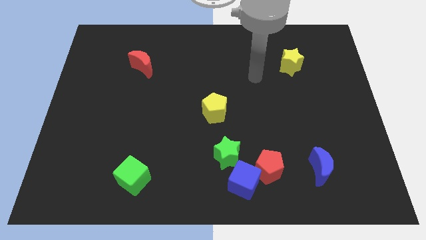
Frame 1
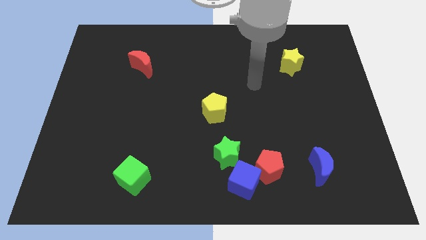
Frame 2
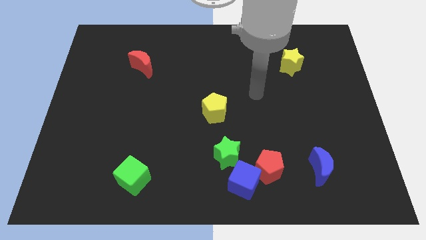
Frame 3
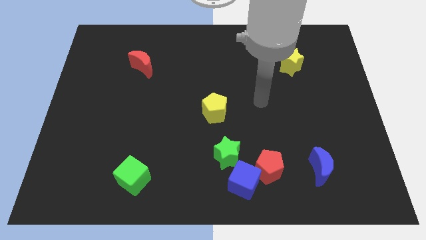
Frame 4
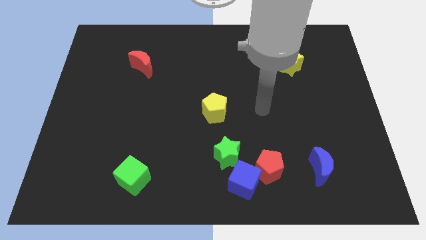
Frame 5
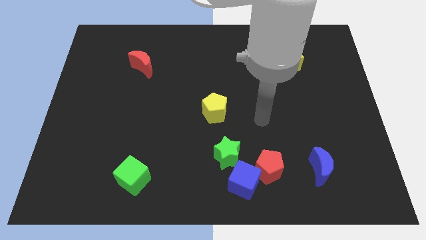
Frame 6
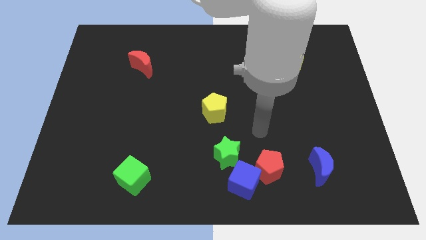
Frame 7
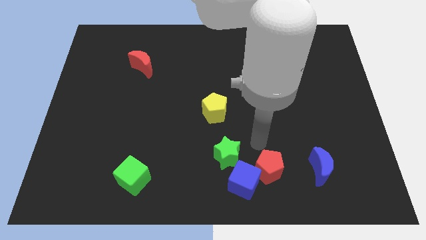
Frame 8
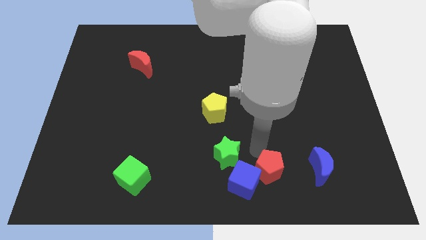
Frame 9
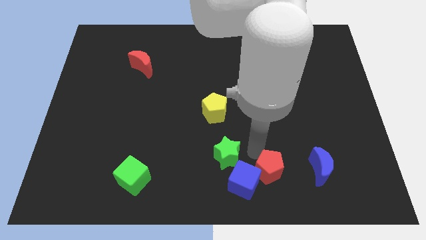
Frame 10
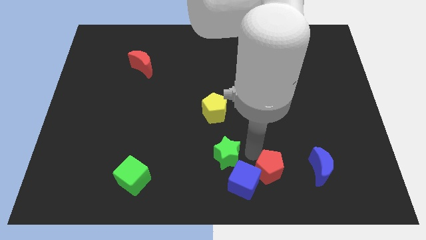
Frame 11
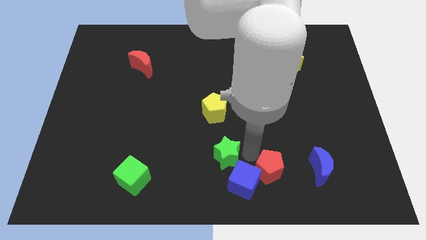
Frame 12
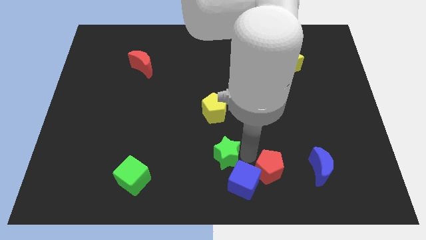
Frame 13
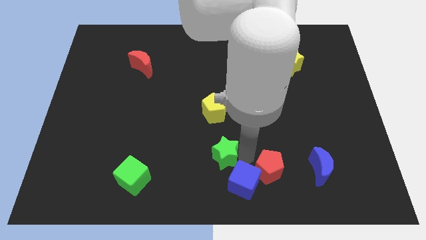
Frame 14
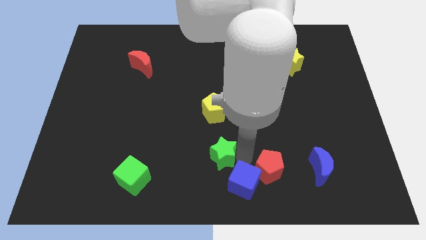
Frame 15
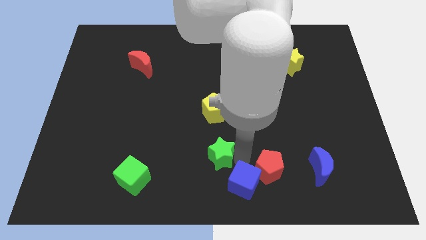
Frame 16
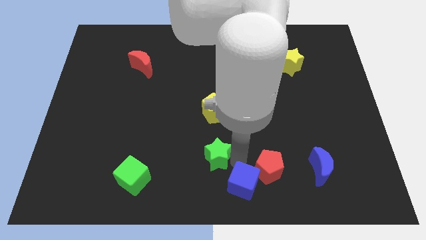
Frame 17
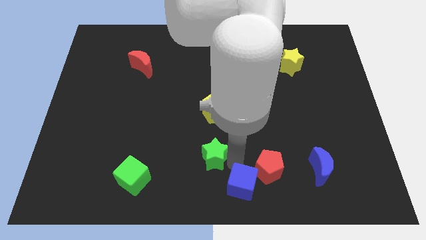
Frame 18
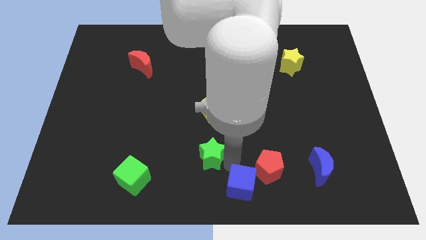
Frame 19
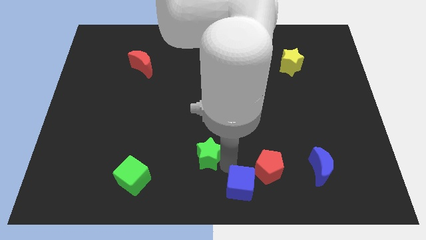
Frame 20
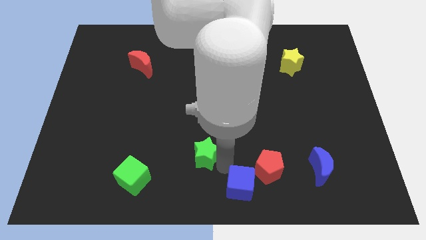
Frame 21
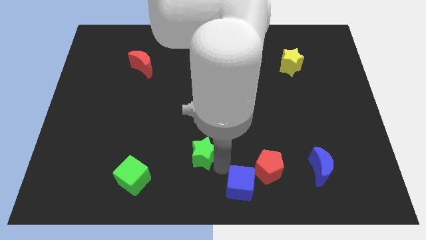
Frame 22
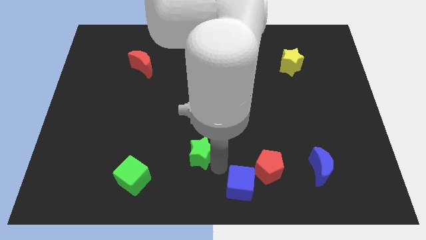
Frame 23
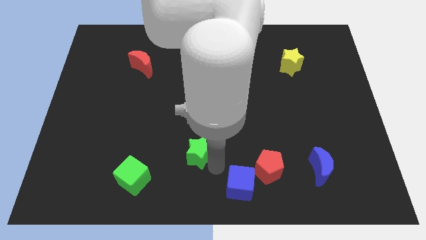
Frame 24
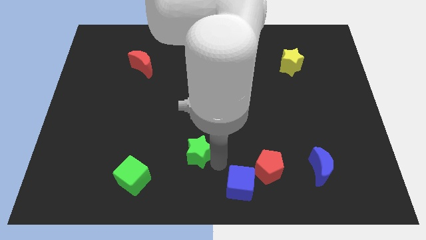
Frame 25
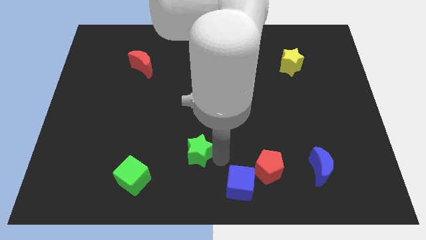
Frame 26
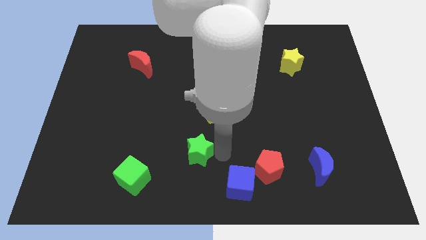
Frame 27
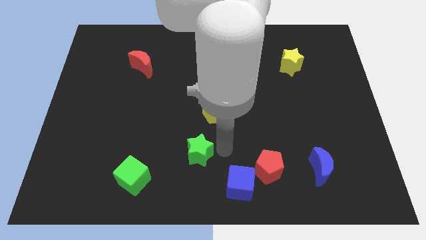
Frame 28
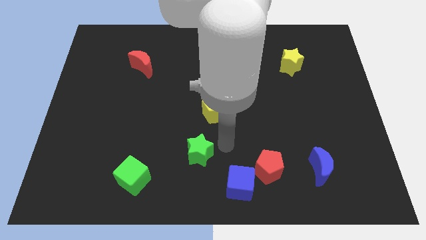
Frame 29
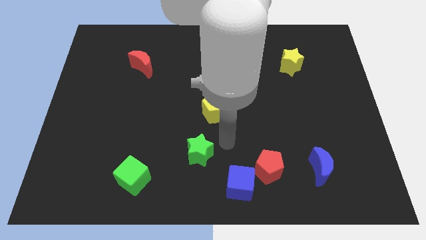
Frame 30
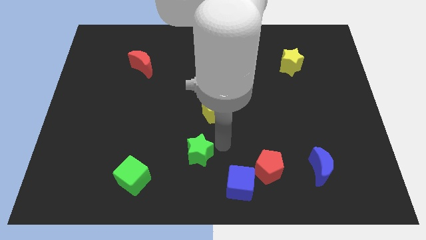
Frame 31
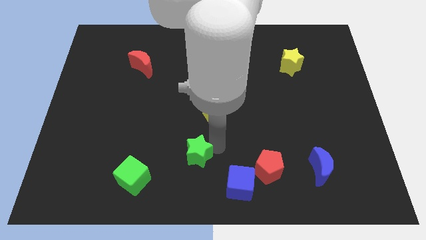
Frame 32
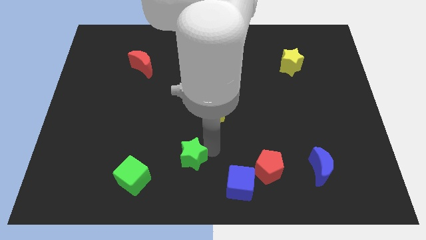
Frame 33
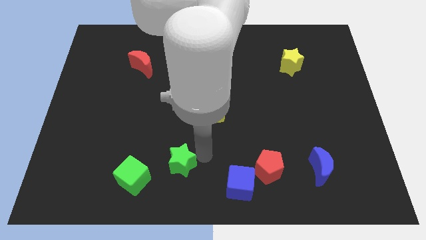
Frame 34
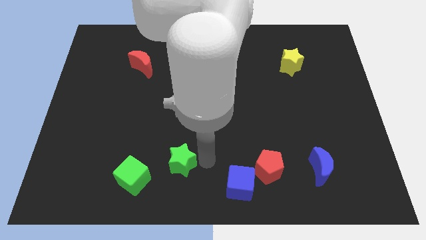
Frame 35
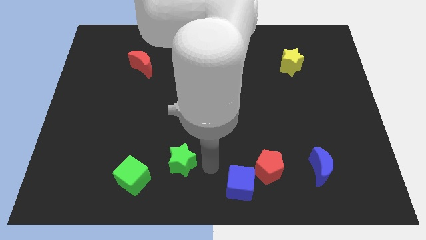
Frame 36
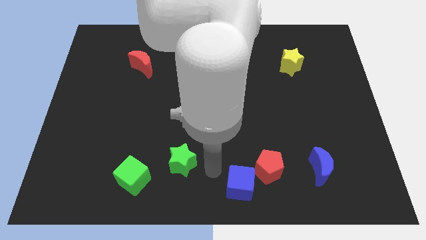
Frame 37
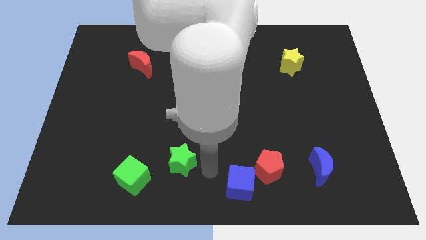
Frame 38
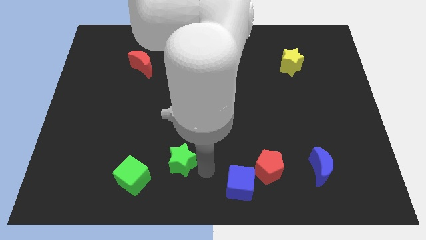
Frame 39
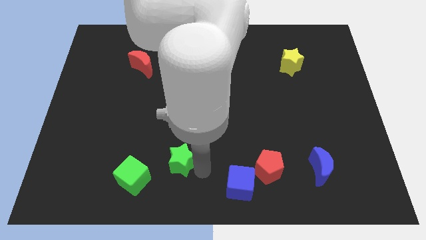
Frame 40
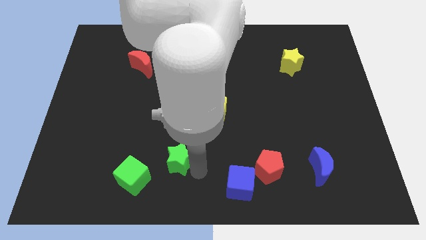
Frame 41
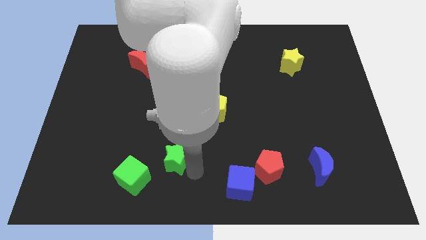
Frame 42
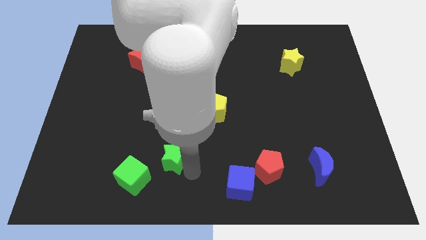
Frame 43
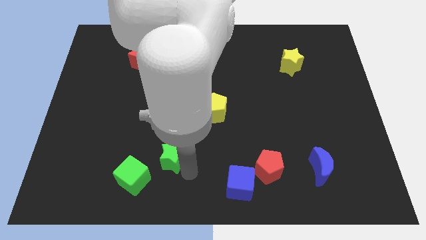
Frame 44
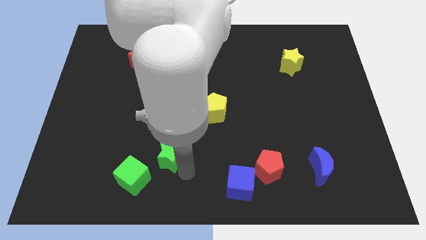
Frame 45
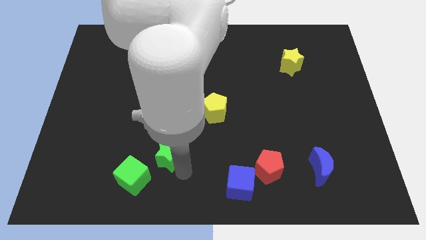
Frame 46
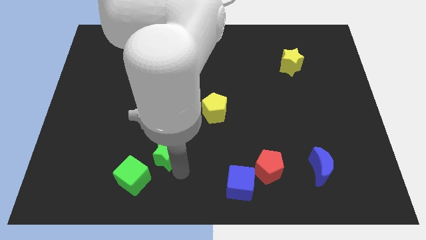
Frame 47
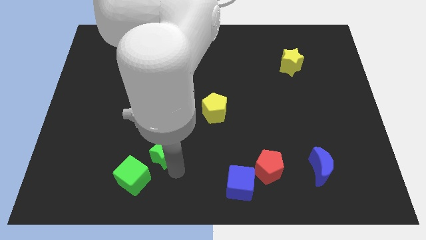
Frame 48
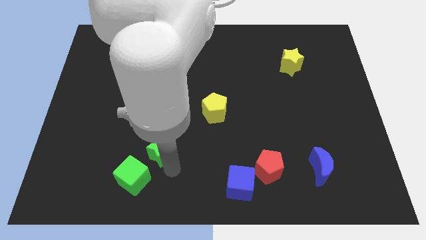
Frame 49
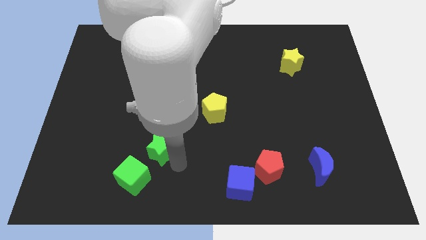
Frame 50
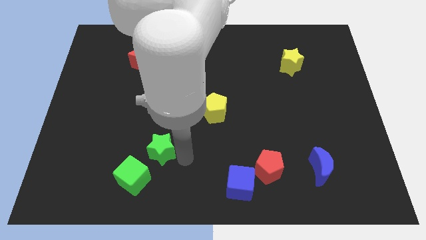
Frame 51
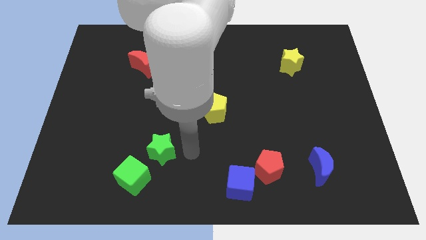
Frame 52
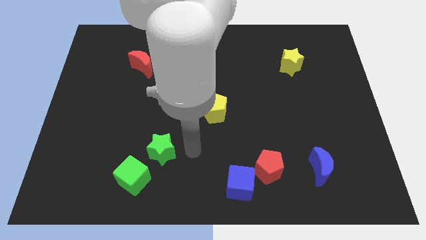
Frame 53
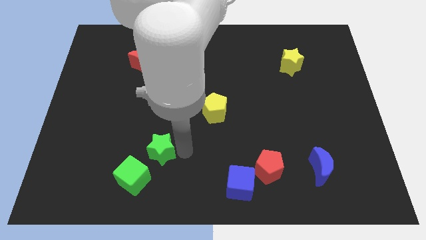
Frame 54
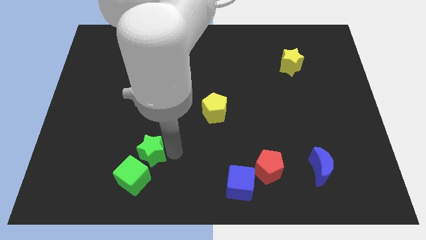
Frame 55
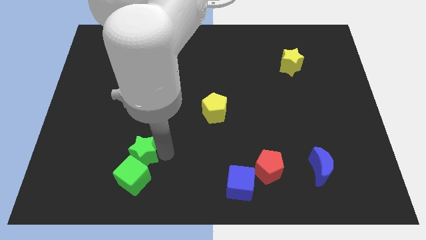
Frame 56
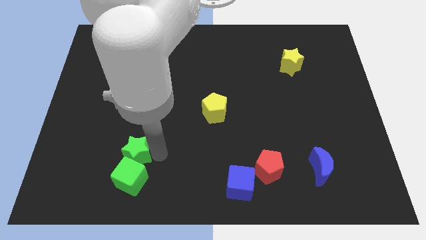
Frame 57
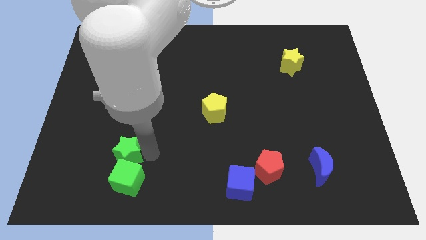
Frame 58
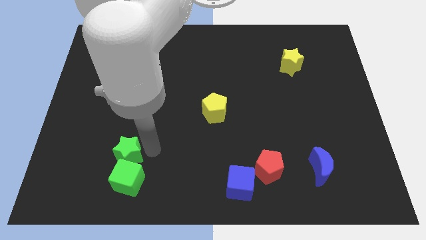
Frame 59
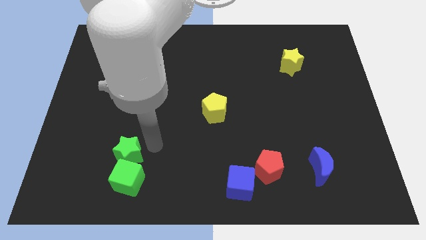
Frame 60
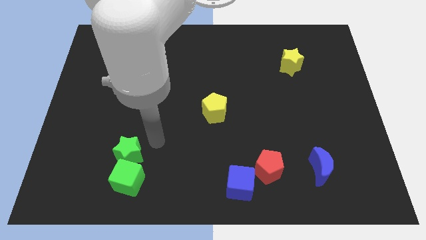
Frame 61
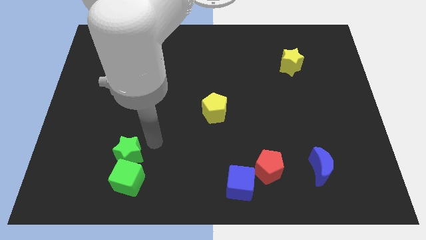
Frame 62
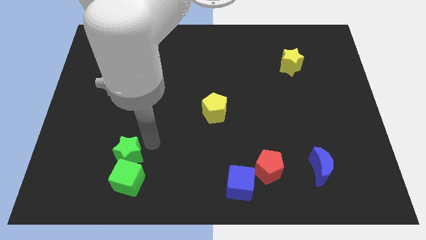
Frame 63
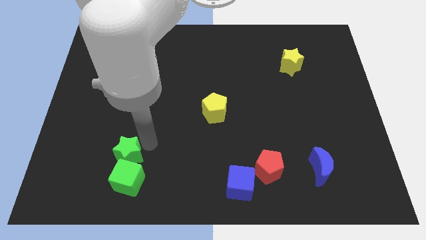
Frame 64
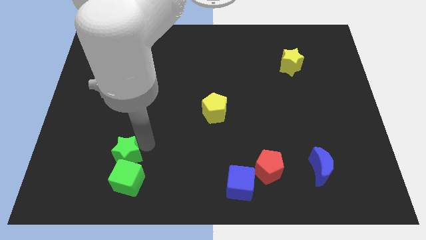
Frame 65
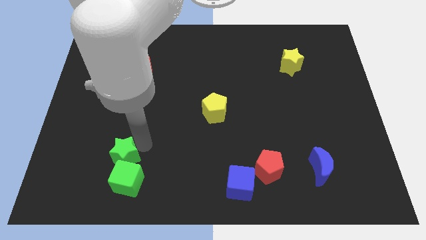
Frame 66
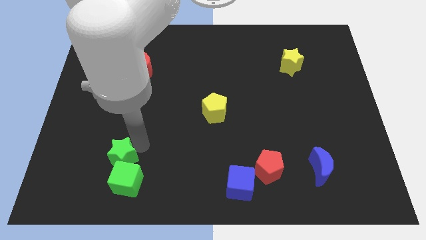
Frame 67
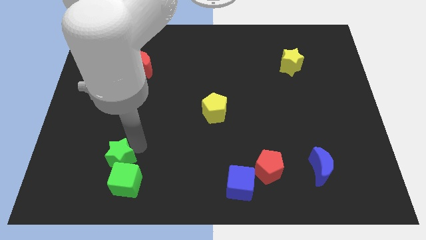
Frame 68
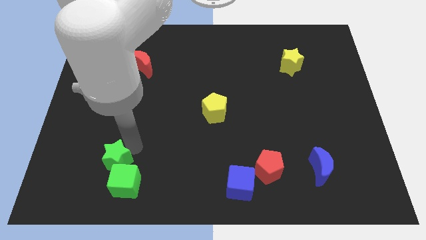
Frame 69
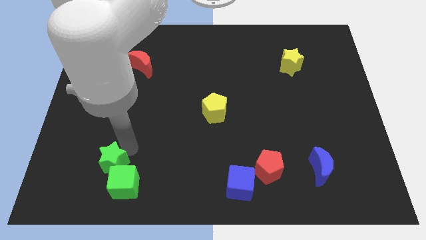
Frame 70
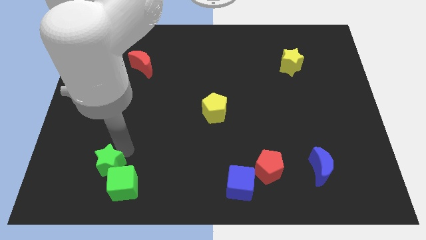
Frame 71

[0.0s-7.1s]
put the green star to the left side of the green cube
